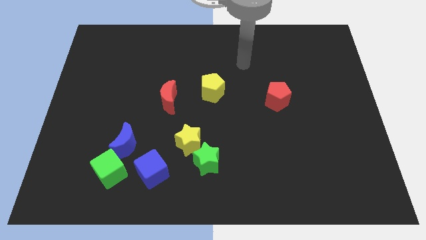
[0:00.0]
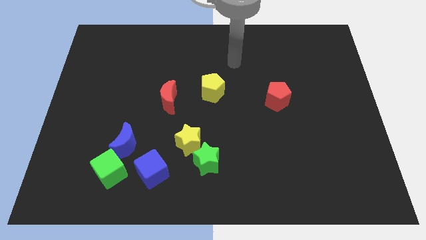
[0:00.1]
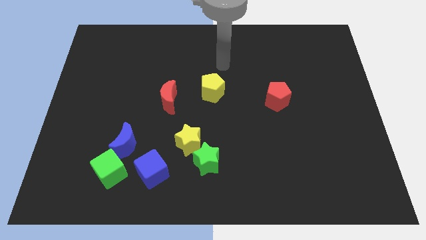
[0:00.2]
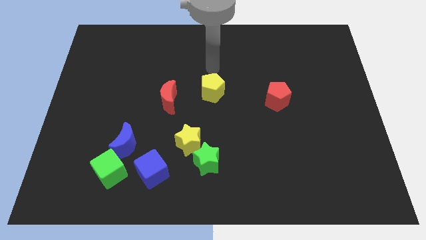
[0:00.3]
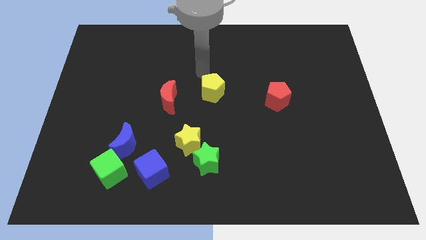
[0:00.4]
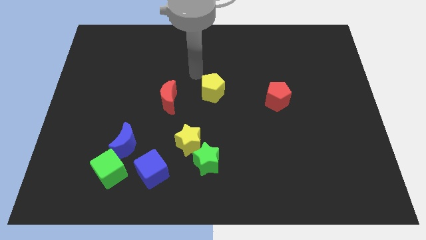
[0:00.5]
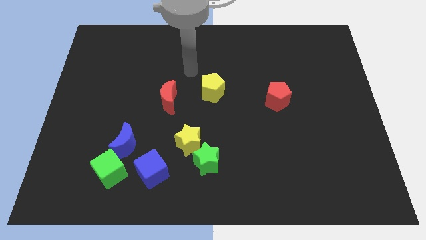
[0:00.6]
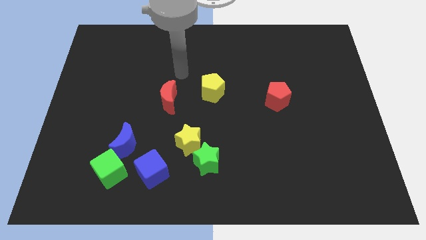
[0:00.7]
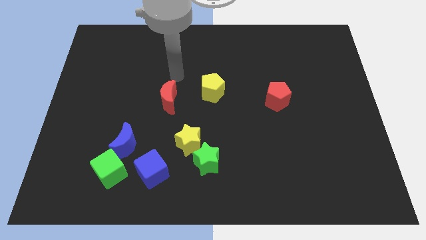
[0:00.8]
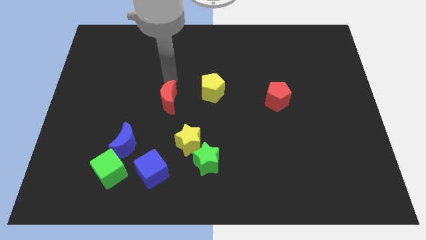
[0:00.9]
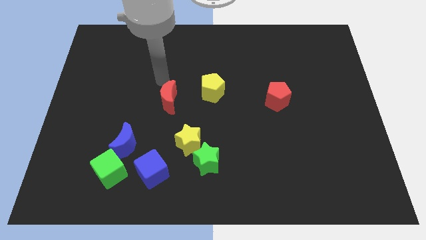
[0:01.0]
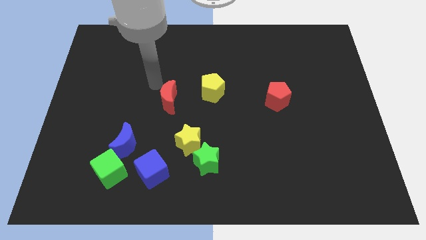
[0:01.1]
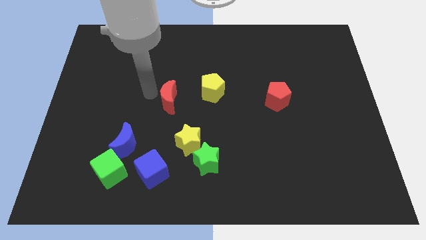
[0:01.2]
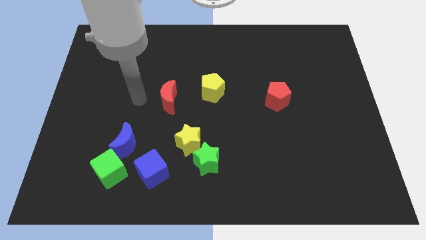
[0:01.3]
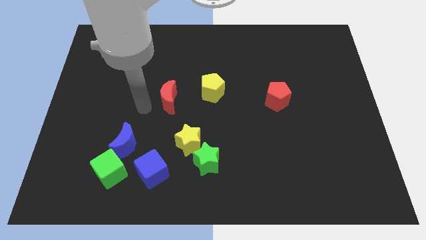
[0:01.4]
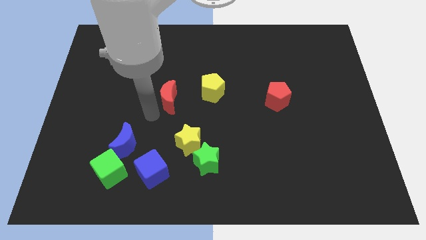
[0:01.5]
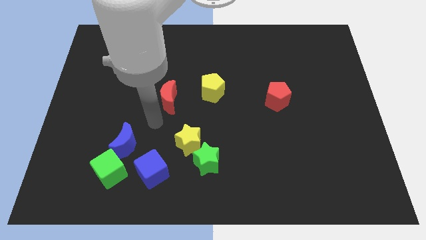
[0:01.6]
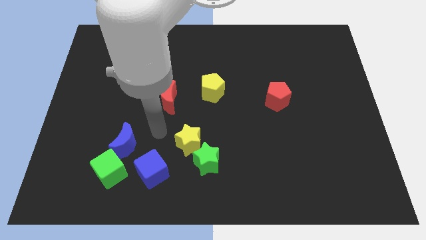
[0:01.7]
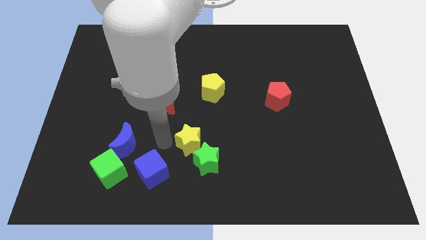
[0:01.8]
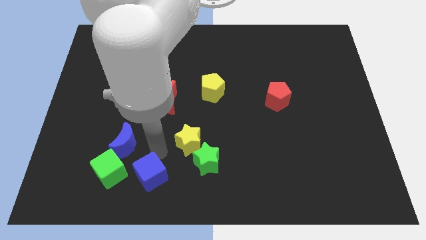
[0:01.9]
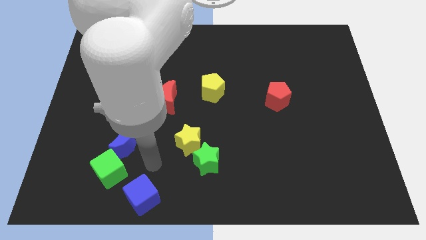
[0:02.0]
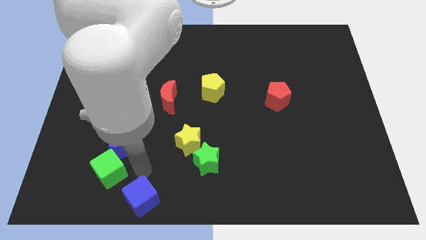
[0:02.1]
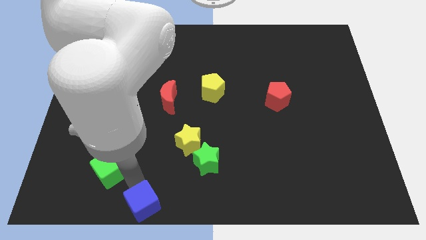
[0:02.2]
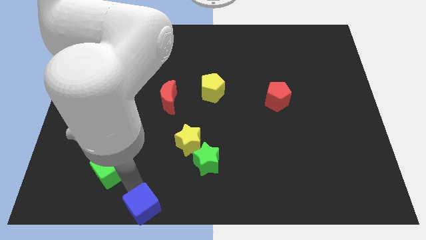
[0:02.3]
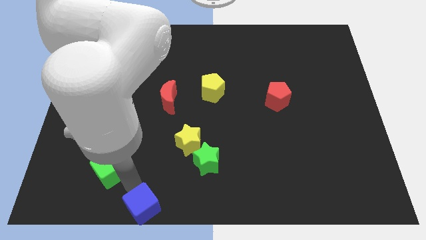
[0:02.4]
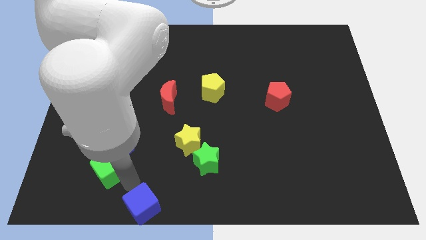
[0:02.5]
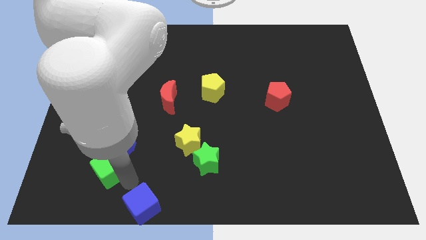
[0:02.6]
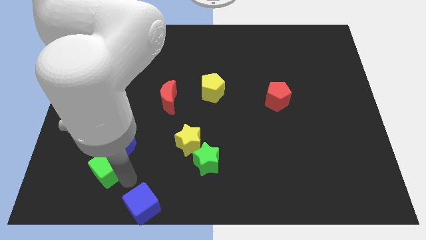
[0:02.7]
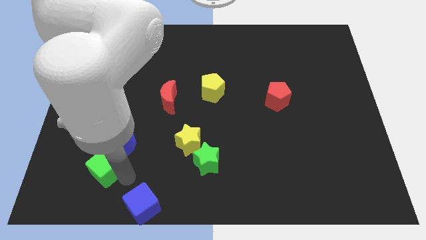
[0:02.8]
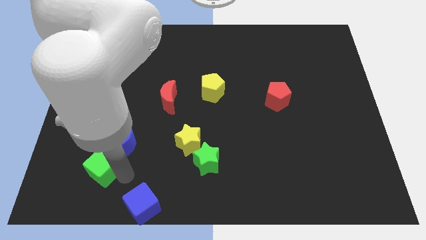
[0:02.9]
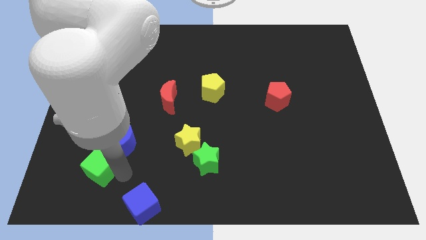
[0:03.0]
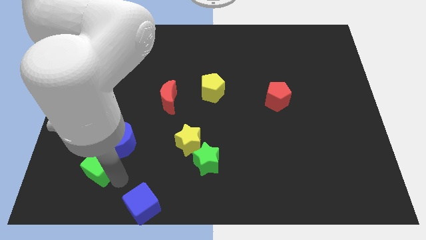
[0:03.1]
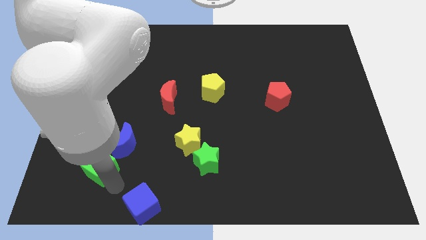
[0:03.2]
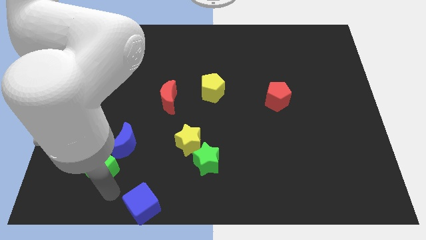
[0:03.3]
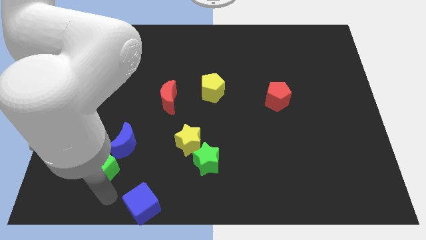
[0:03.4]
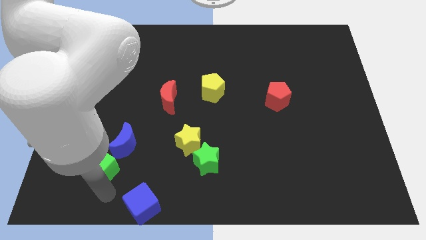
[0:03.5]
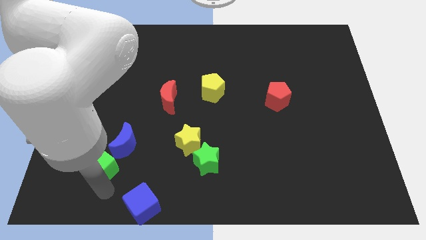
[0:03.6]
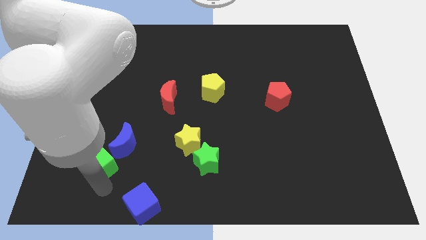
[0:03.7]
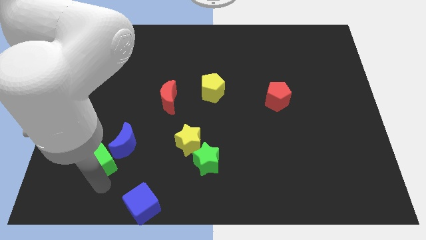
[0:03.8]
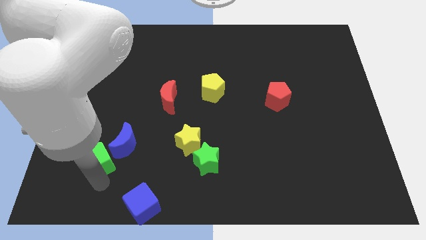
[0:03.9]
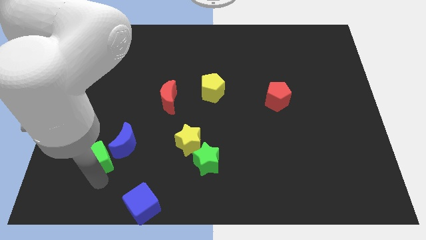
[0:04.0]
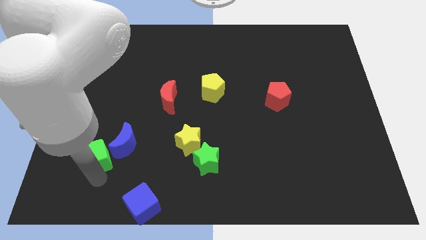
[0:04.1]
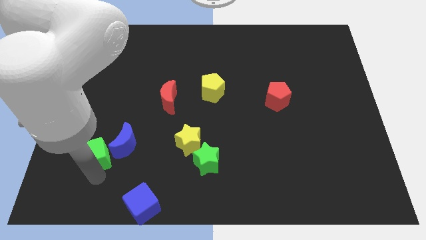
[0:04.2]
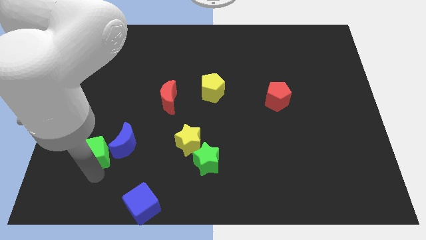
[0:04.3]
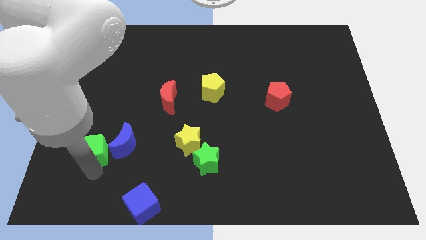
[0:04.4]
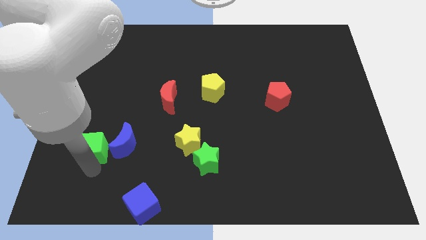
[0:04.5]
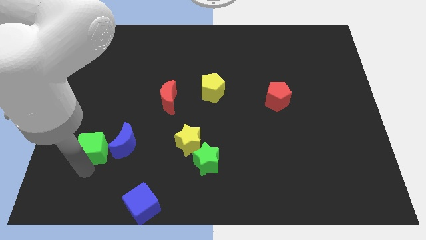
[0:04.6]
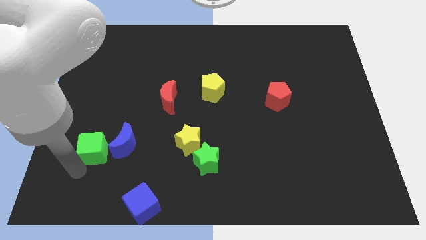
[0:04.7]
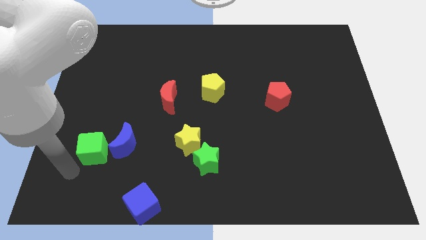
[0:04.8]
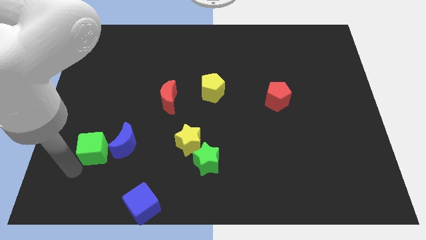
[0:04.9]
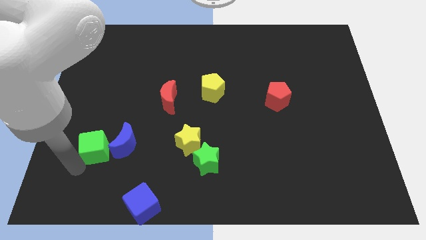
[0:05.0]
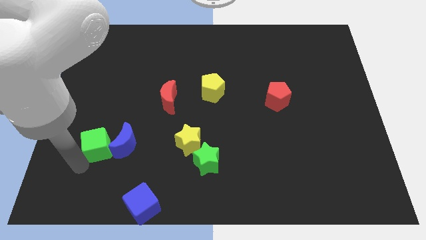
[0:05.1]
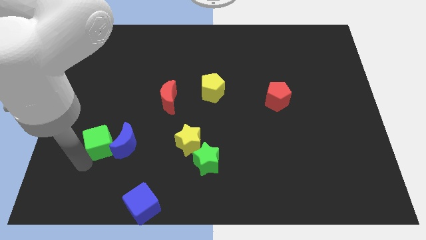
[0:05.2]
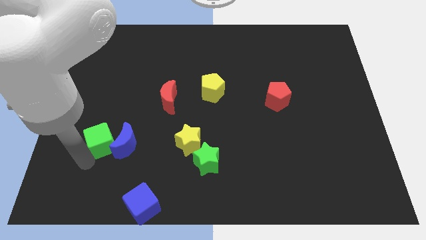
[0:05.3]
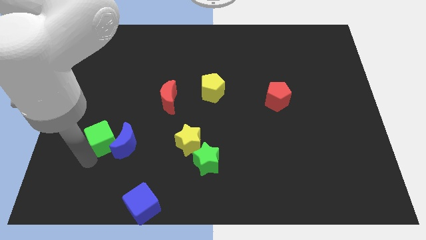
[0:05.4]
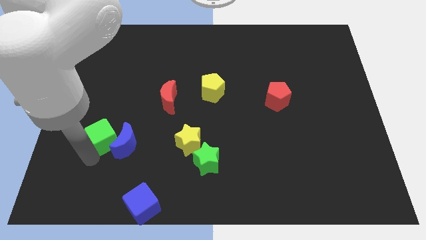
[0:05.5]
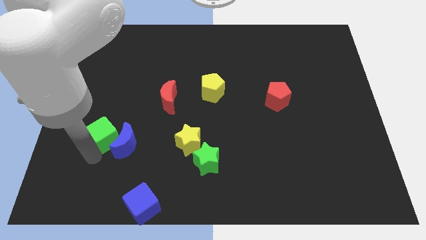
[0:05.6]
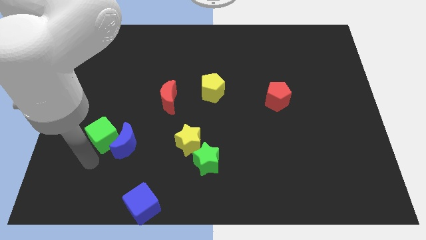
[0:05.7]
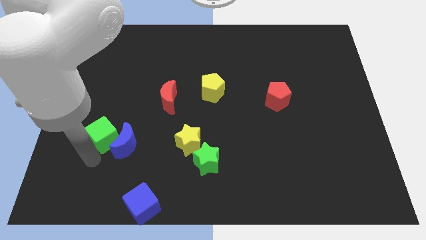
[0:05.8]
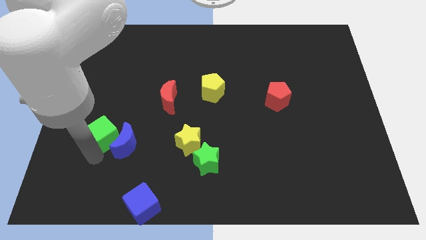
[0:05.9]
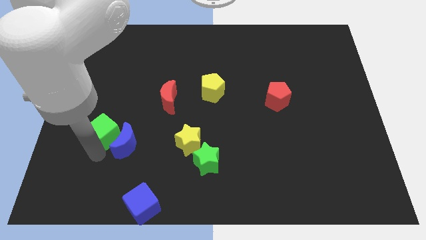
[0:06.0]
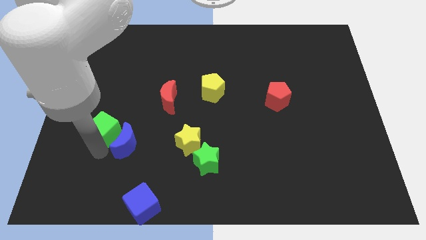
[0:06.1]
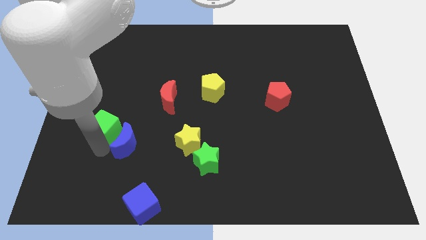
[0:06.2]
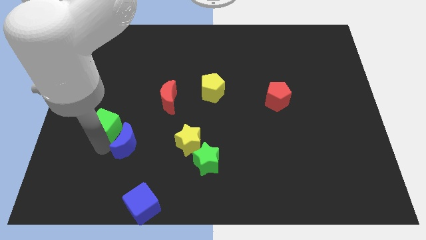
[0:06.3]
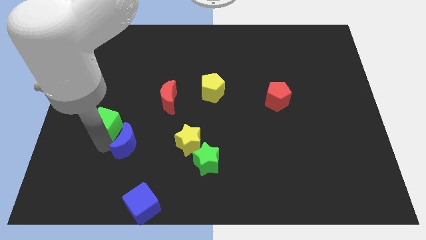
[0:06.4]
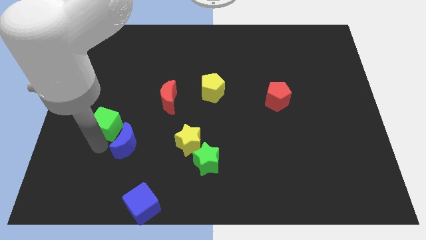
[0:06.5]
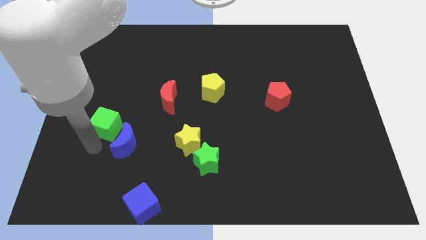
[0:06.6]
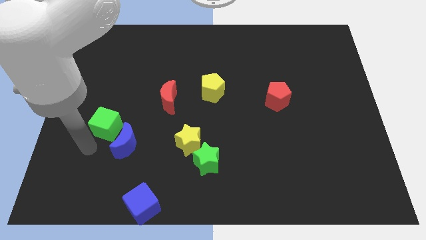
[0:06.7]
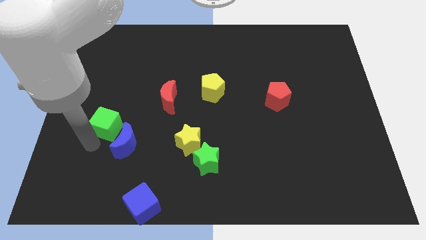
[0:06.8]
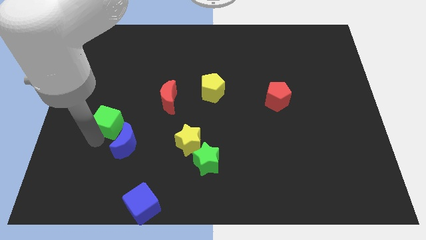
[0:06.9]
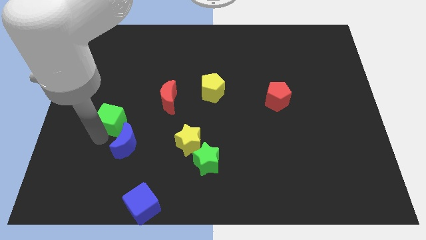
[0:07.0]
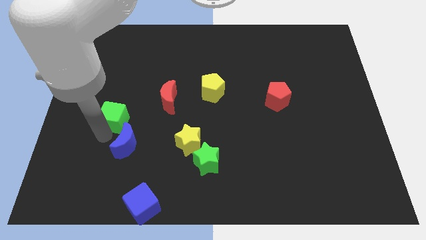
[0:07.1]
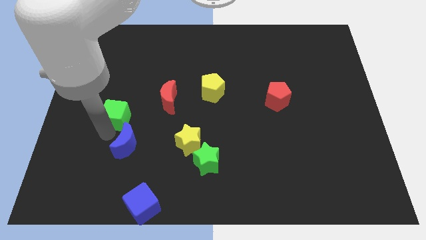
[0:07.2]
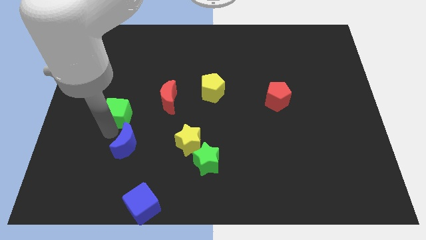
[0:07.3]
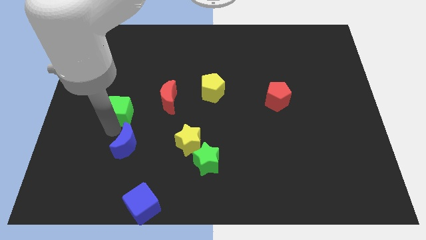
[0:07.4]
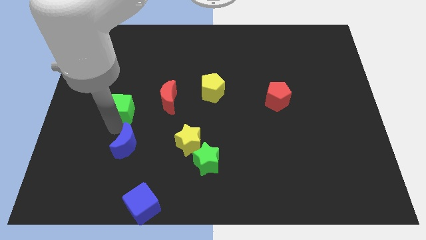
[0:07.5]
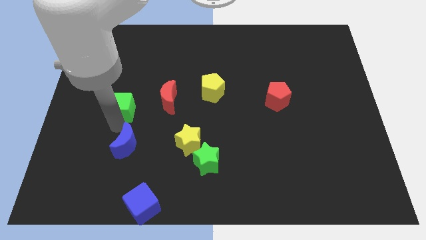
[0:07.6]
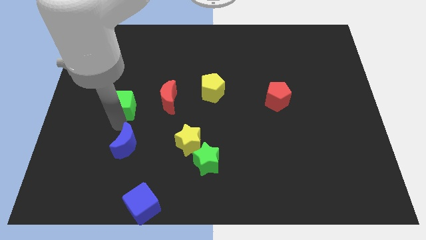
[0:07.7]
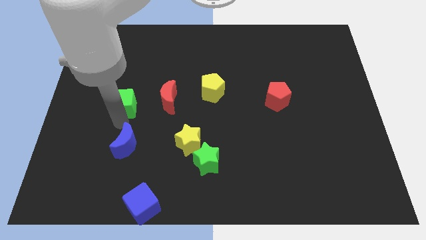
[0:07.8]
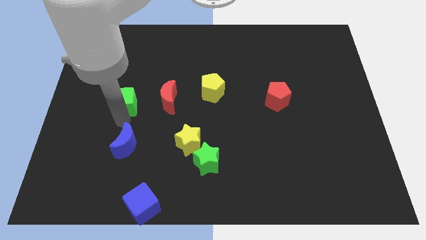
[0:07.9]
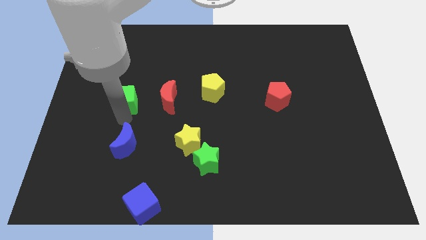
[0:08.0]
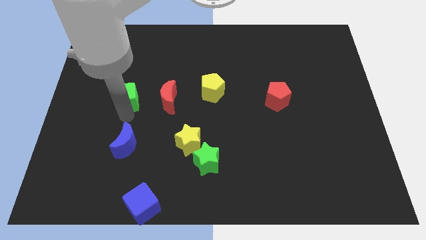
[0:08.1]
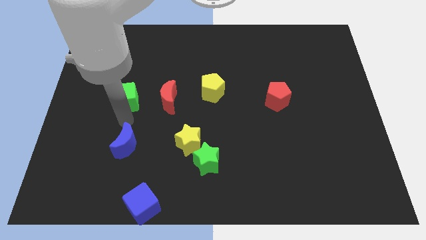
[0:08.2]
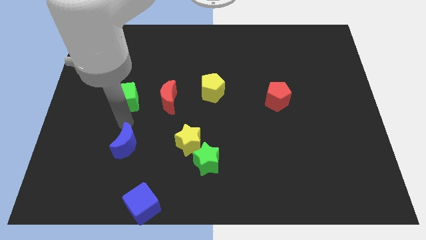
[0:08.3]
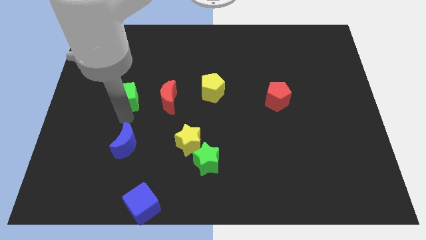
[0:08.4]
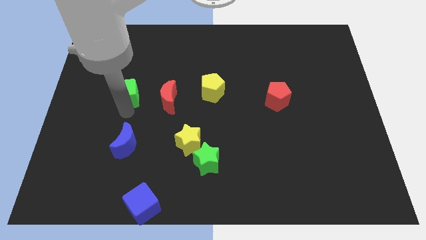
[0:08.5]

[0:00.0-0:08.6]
push the green cube upwards
